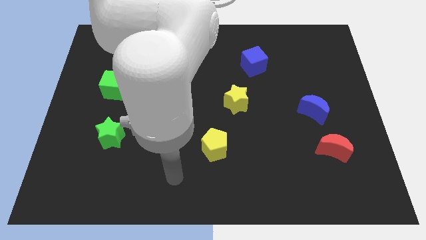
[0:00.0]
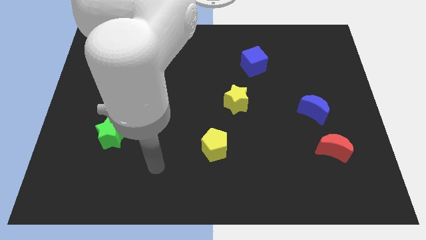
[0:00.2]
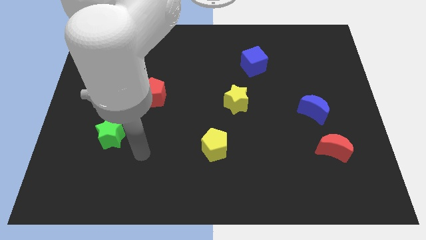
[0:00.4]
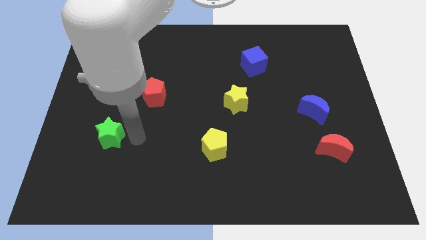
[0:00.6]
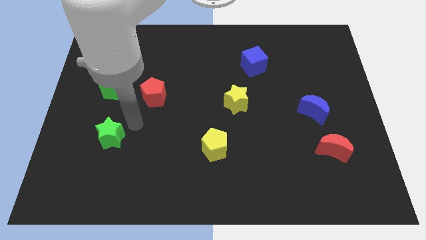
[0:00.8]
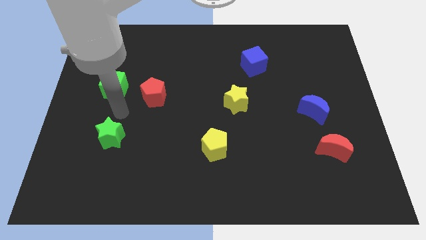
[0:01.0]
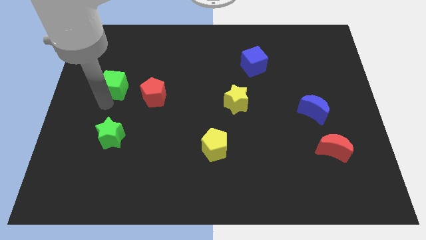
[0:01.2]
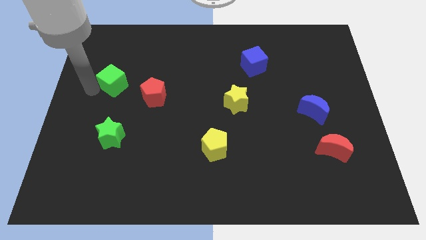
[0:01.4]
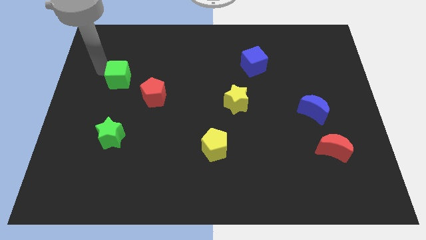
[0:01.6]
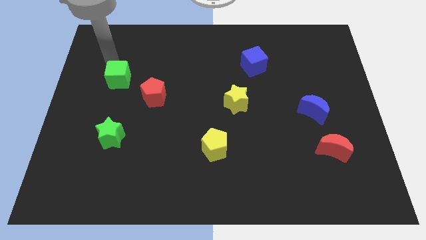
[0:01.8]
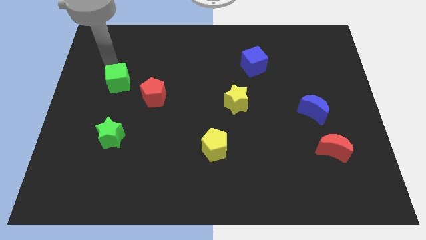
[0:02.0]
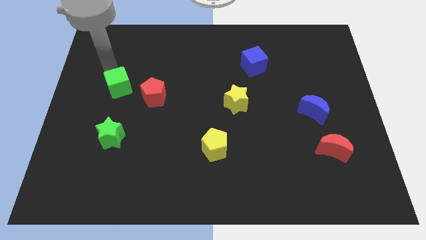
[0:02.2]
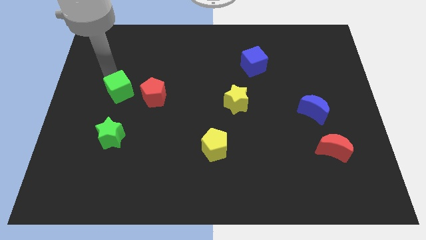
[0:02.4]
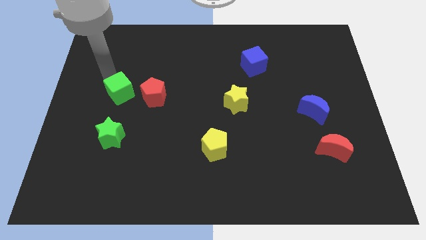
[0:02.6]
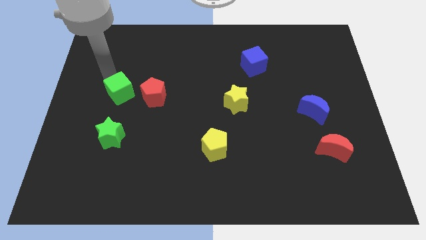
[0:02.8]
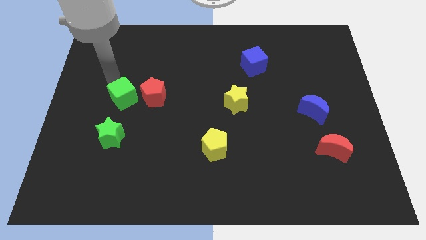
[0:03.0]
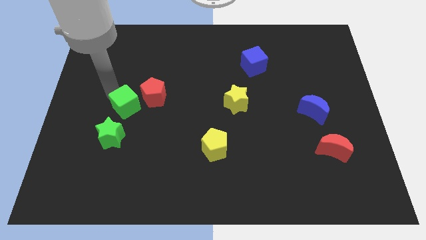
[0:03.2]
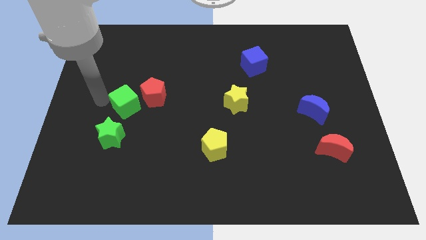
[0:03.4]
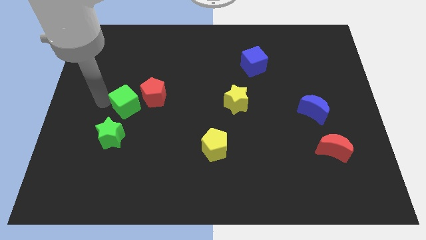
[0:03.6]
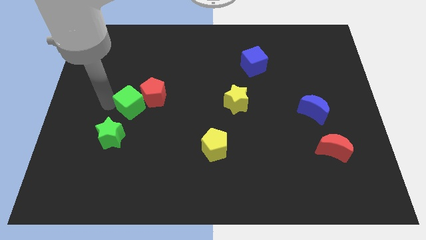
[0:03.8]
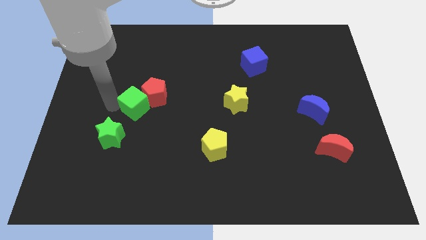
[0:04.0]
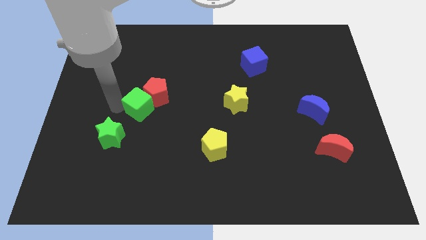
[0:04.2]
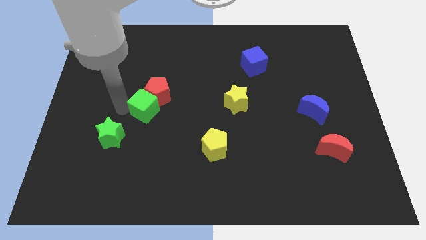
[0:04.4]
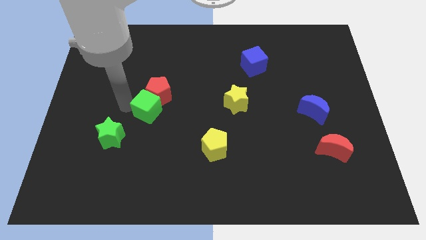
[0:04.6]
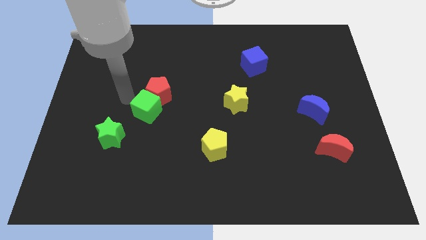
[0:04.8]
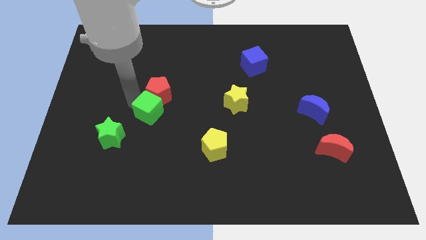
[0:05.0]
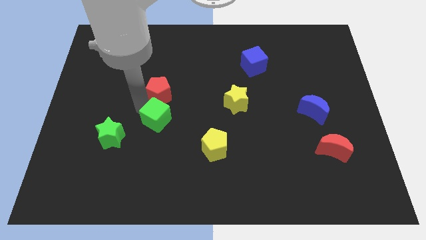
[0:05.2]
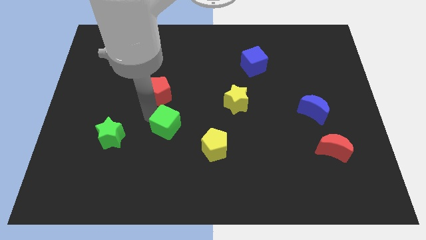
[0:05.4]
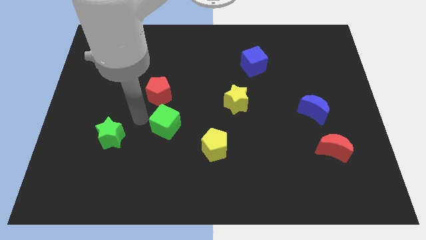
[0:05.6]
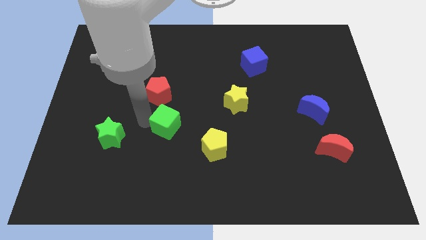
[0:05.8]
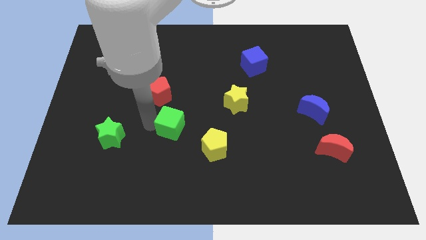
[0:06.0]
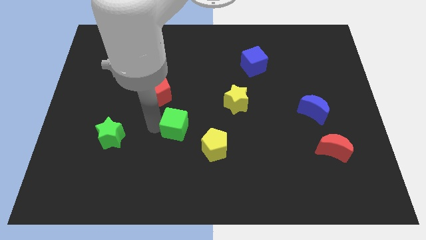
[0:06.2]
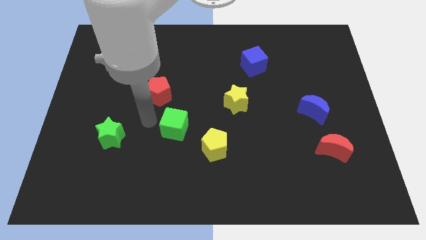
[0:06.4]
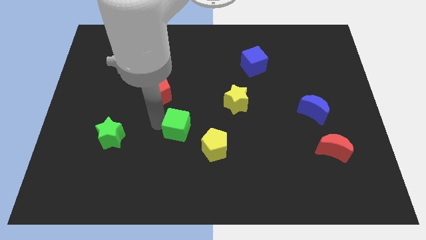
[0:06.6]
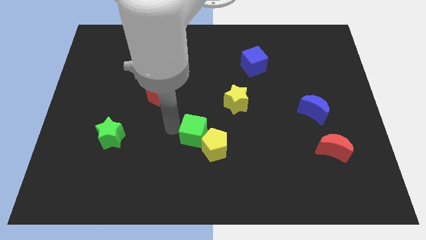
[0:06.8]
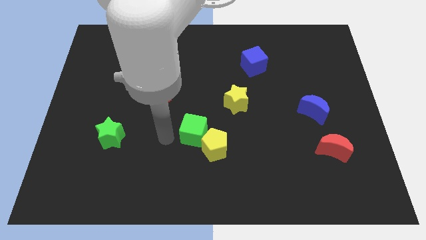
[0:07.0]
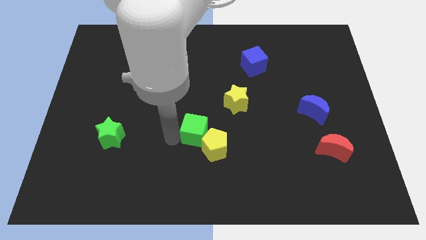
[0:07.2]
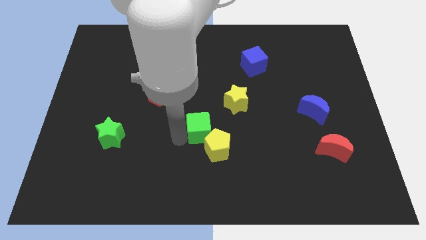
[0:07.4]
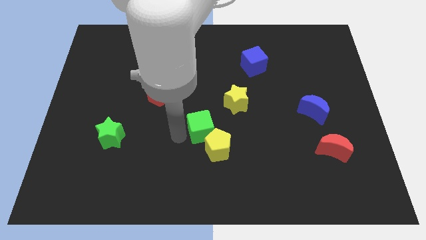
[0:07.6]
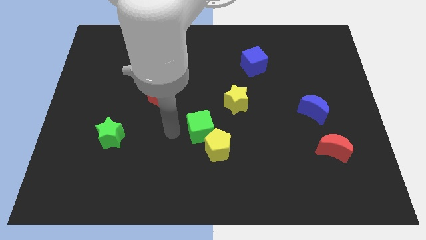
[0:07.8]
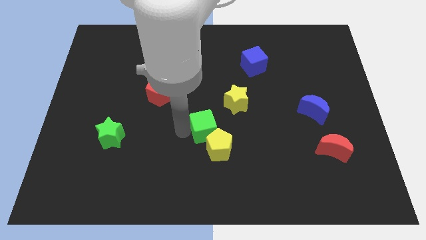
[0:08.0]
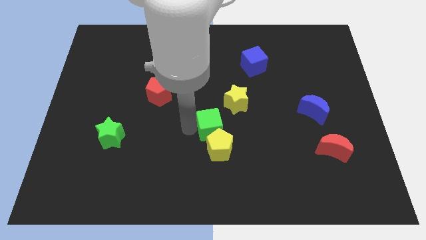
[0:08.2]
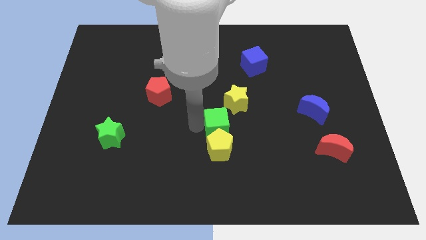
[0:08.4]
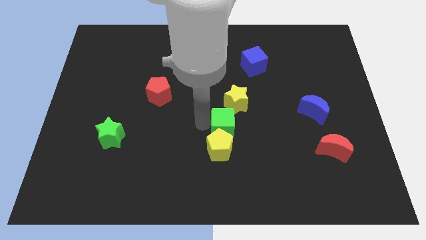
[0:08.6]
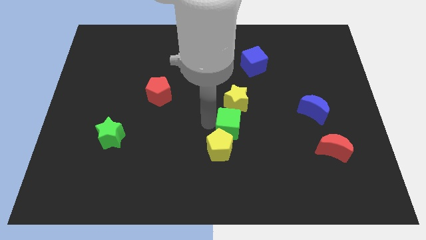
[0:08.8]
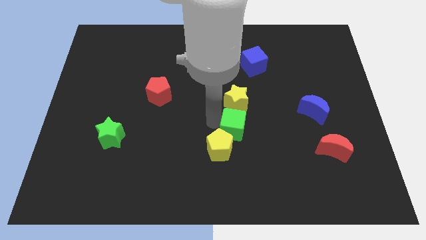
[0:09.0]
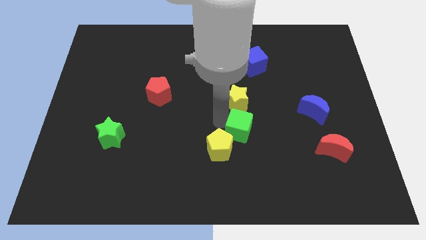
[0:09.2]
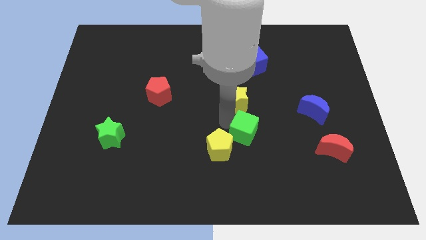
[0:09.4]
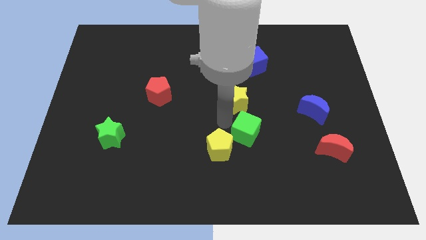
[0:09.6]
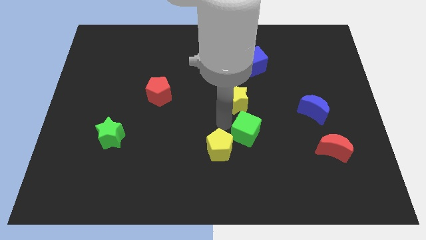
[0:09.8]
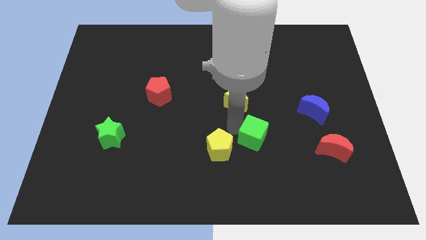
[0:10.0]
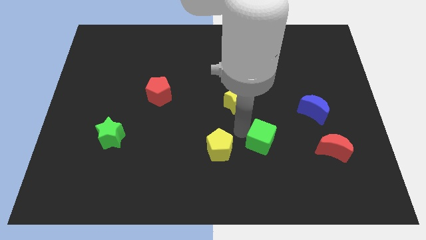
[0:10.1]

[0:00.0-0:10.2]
put the green cube just left of the red moon

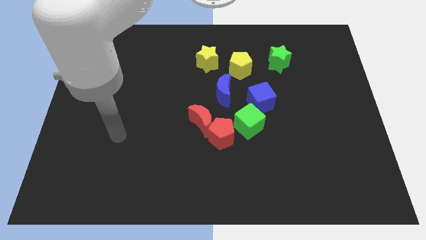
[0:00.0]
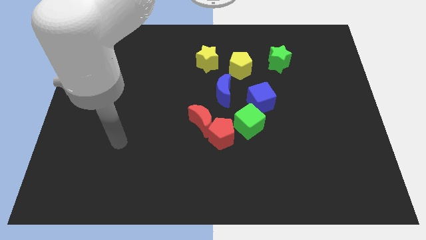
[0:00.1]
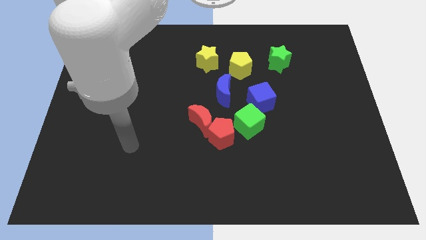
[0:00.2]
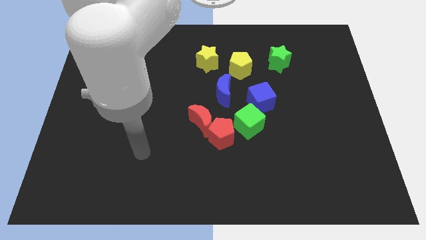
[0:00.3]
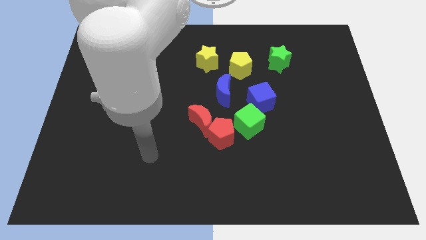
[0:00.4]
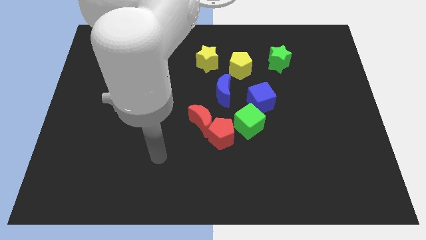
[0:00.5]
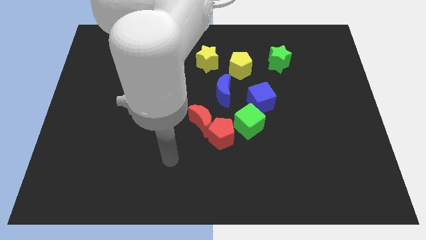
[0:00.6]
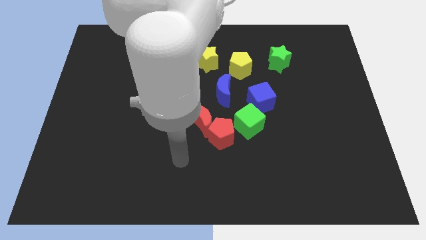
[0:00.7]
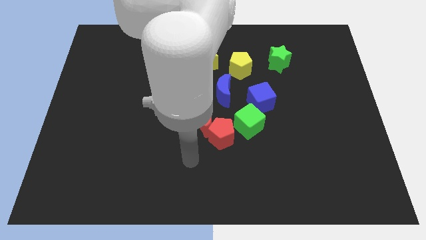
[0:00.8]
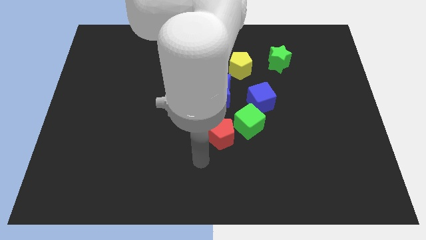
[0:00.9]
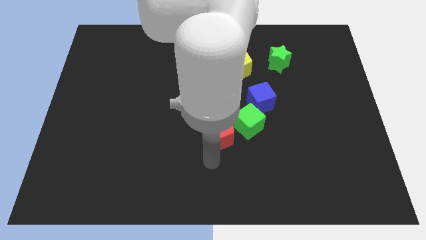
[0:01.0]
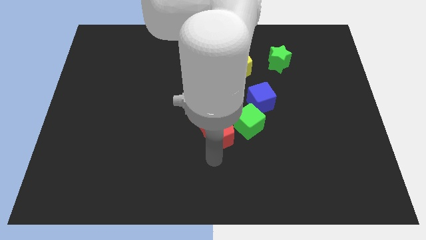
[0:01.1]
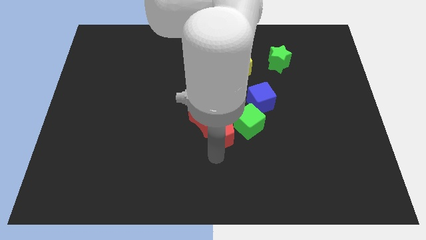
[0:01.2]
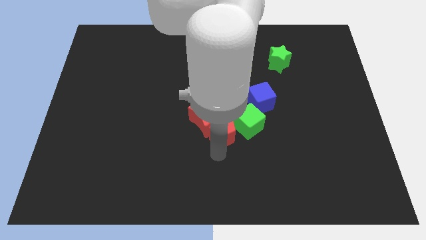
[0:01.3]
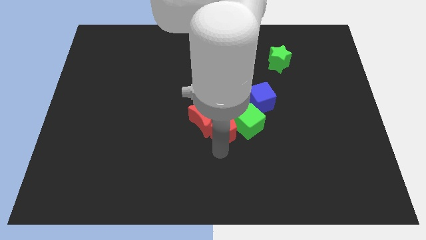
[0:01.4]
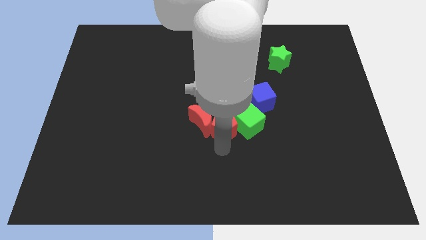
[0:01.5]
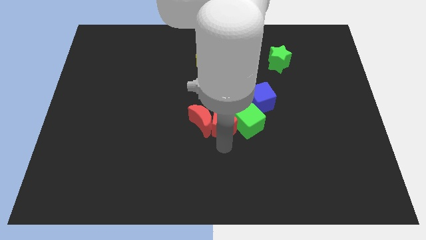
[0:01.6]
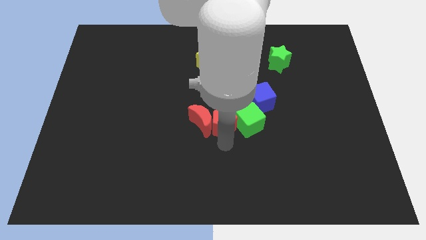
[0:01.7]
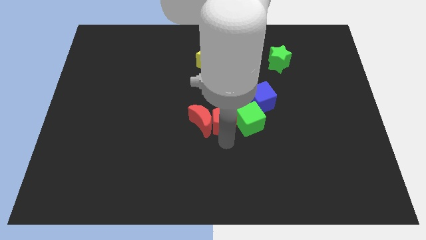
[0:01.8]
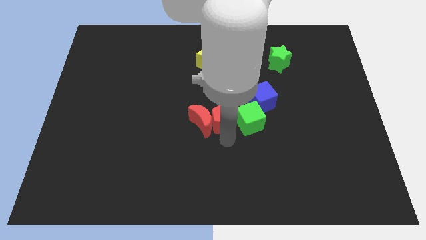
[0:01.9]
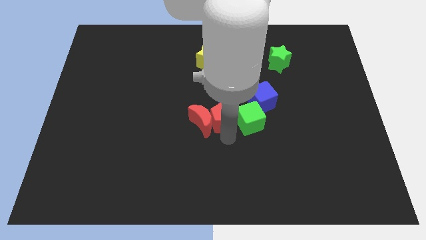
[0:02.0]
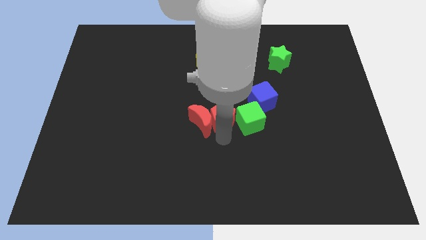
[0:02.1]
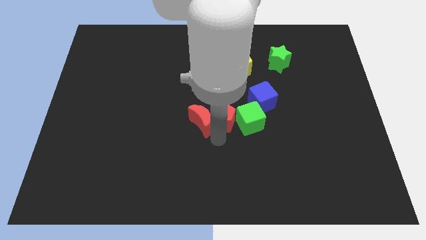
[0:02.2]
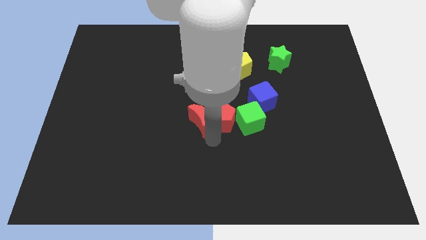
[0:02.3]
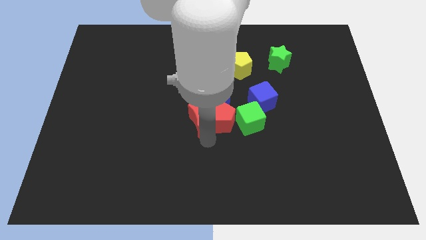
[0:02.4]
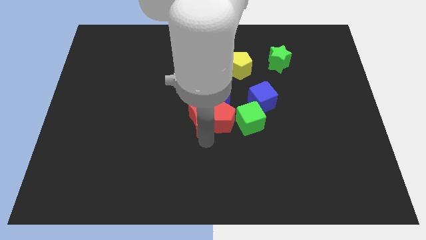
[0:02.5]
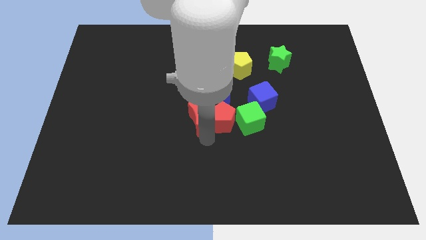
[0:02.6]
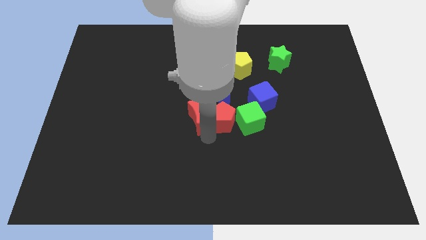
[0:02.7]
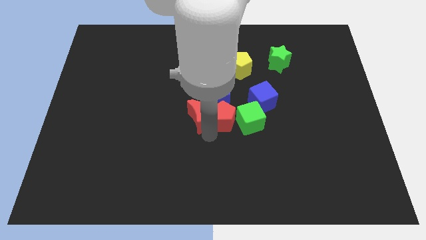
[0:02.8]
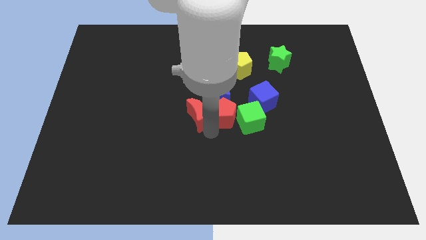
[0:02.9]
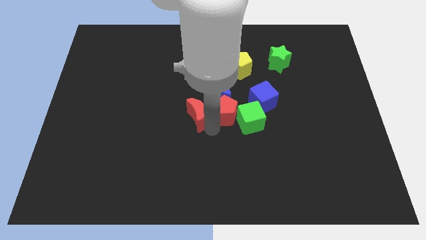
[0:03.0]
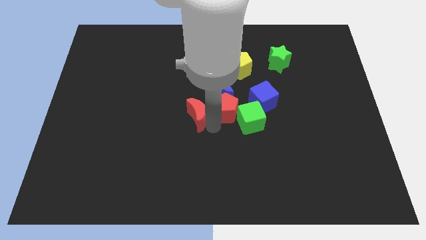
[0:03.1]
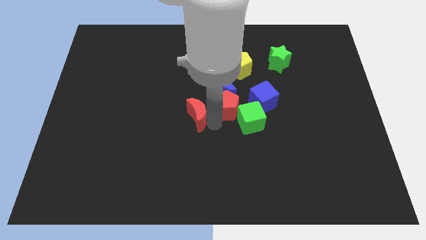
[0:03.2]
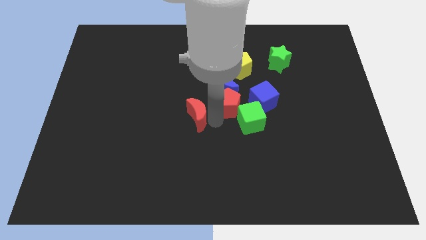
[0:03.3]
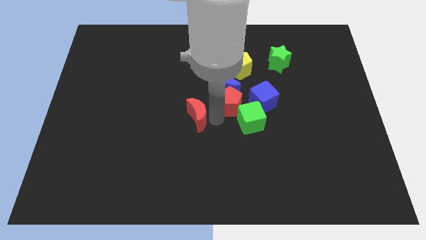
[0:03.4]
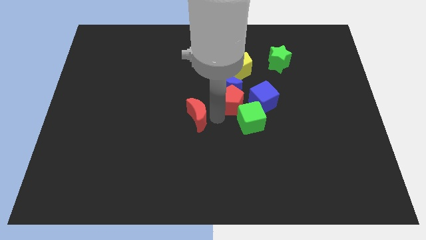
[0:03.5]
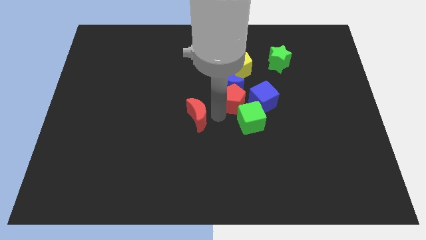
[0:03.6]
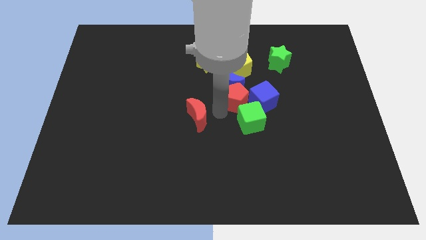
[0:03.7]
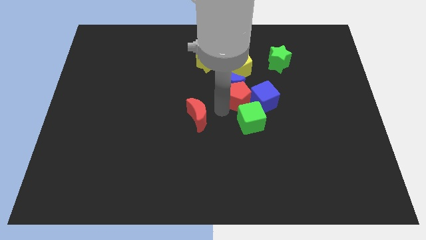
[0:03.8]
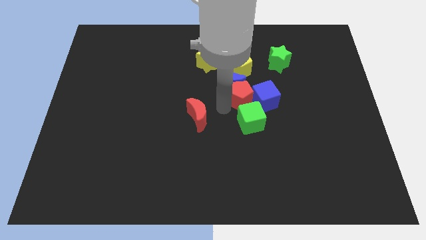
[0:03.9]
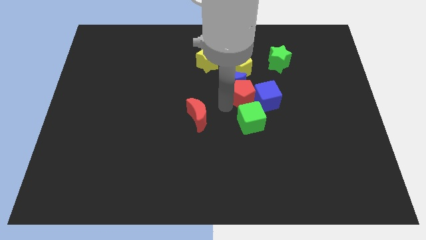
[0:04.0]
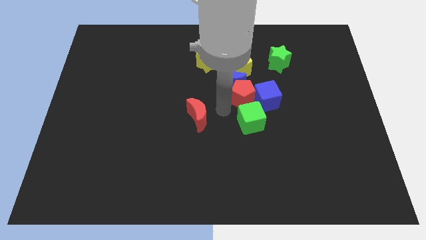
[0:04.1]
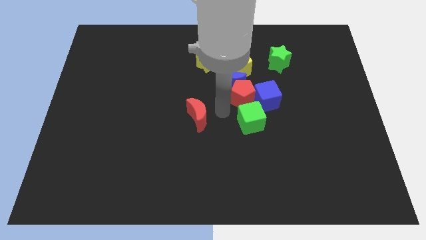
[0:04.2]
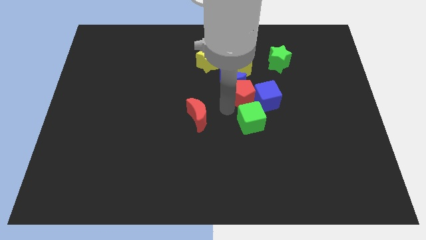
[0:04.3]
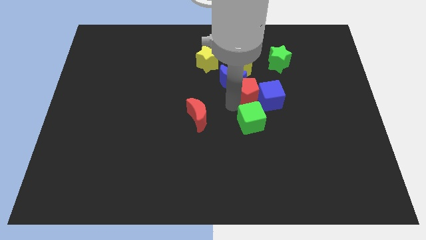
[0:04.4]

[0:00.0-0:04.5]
push the red pentagon just right of the blue moon
